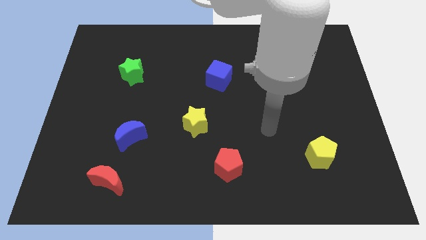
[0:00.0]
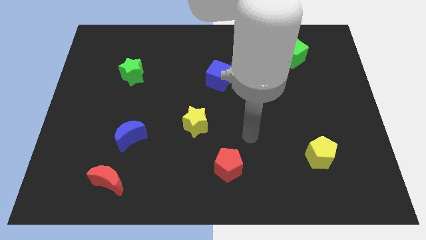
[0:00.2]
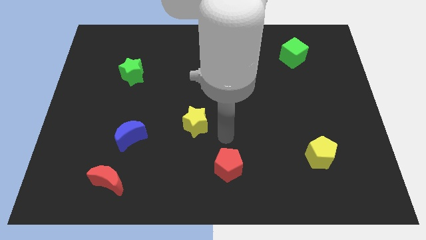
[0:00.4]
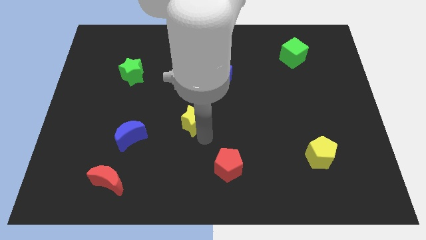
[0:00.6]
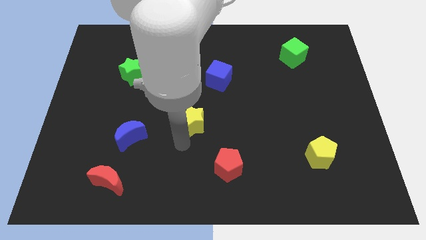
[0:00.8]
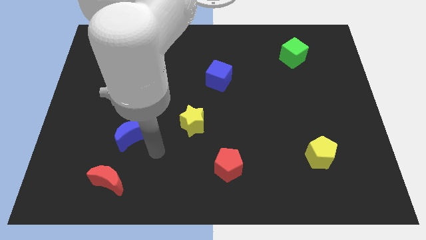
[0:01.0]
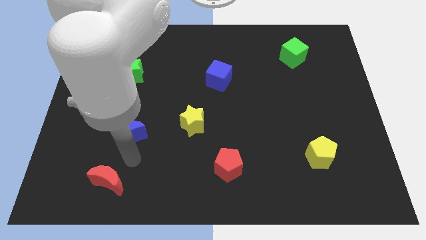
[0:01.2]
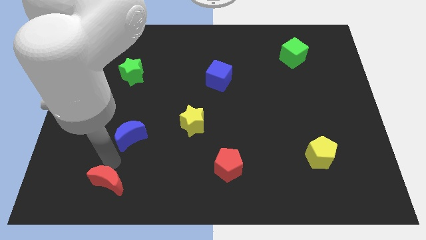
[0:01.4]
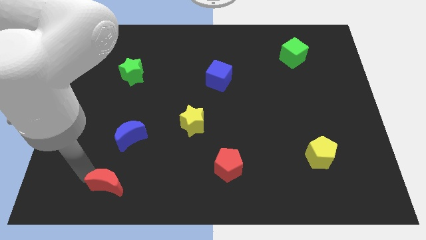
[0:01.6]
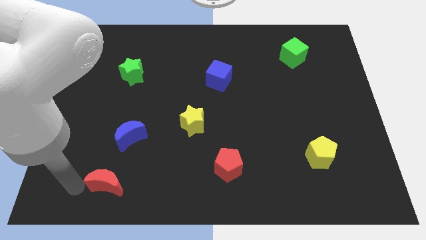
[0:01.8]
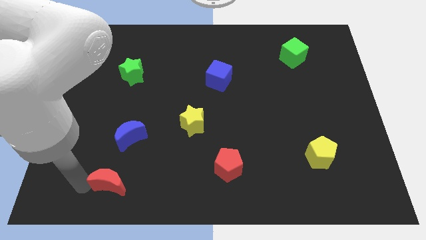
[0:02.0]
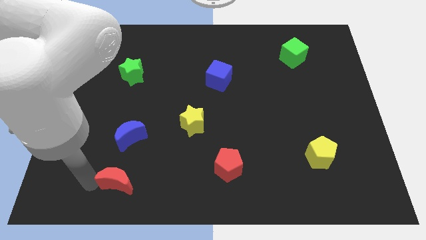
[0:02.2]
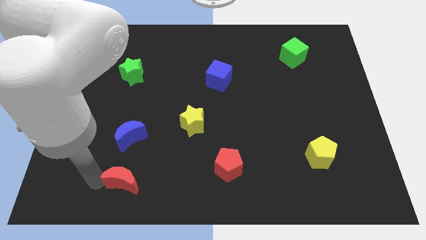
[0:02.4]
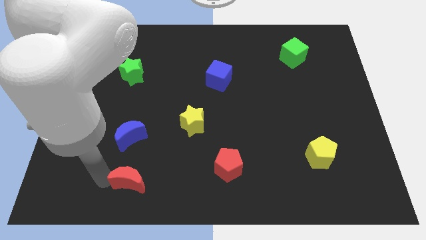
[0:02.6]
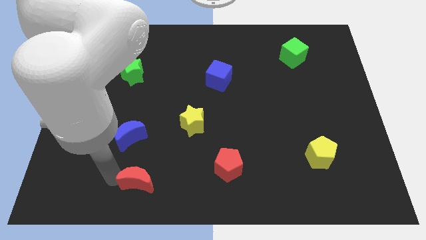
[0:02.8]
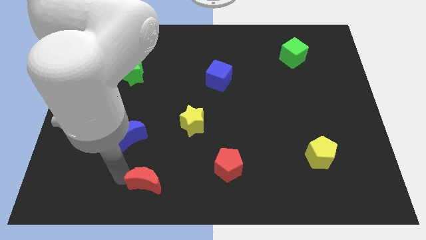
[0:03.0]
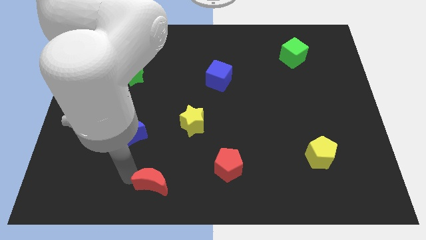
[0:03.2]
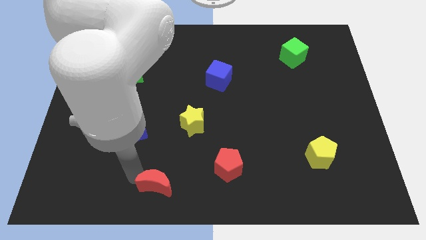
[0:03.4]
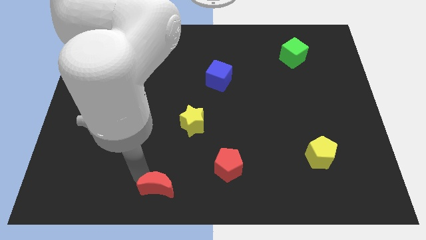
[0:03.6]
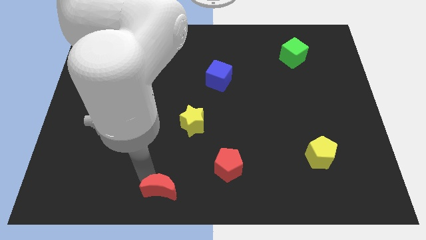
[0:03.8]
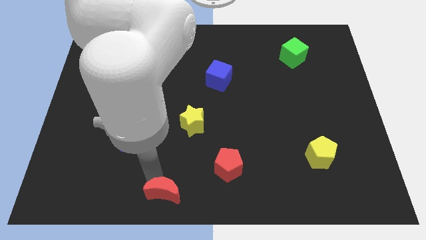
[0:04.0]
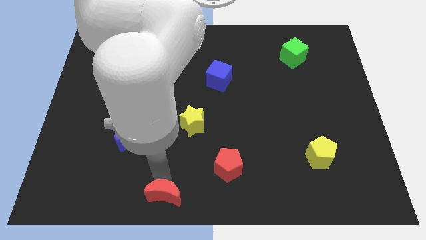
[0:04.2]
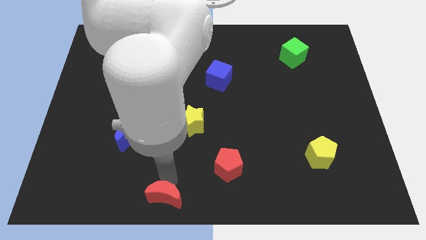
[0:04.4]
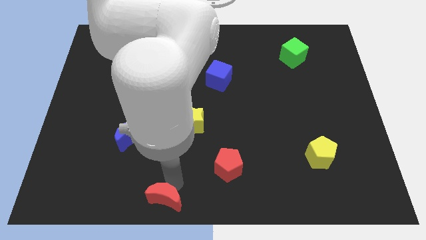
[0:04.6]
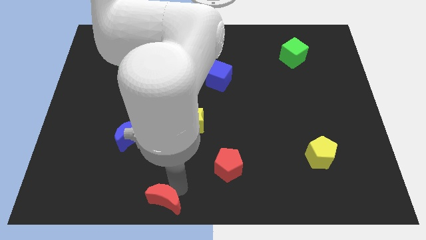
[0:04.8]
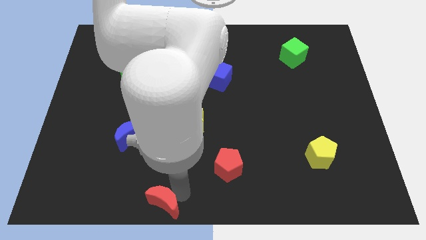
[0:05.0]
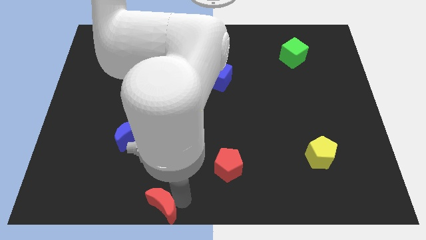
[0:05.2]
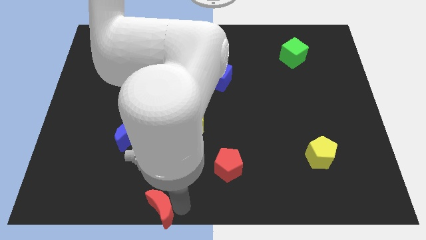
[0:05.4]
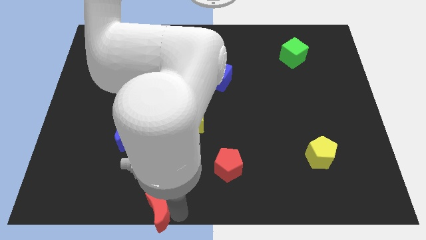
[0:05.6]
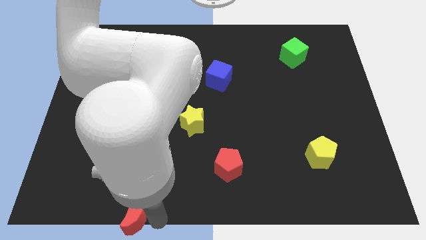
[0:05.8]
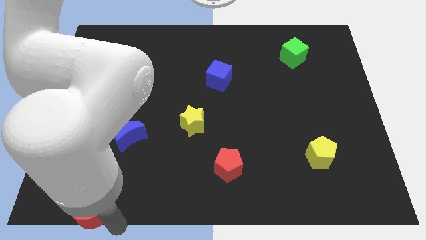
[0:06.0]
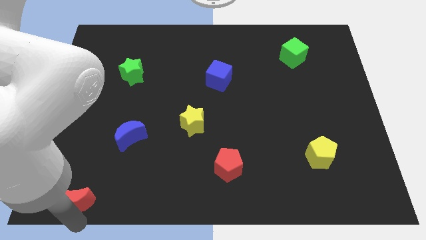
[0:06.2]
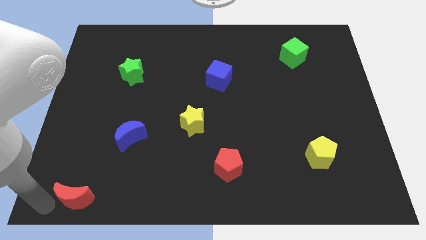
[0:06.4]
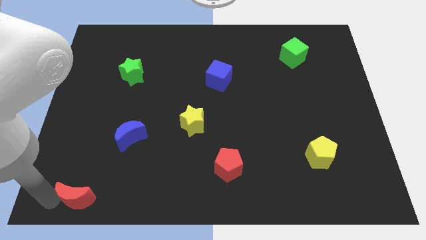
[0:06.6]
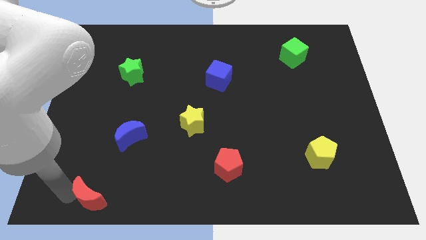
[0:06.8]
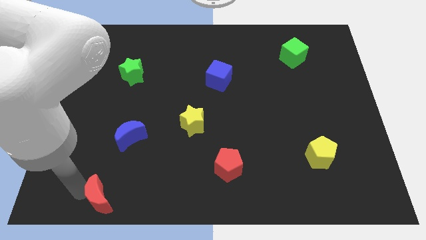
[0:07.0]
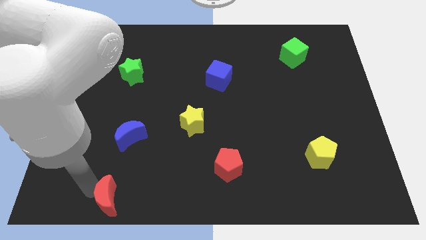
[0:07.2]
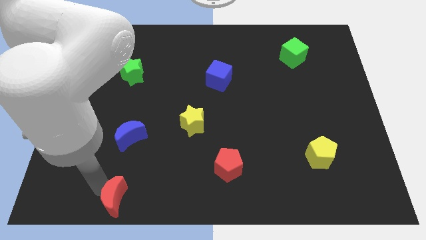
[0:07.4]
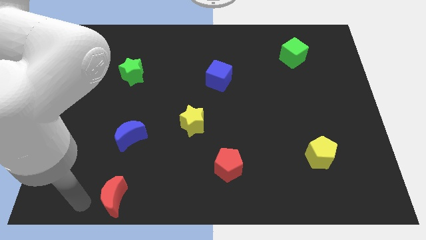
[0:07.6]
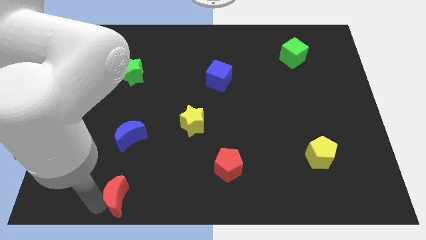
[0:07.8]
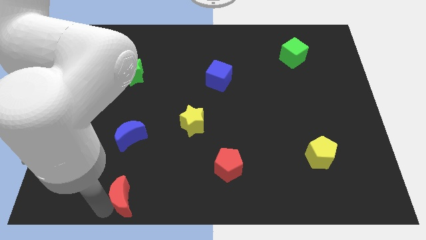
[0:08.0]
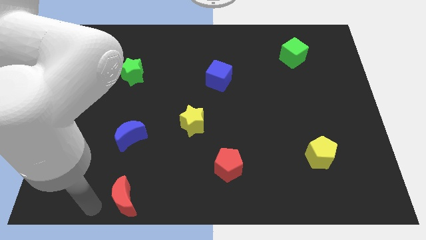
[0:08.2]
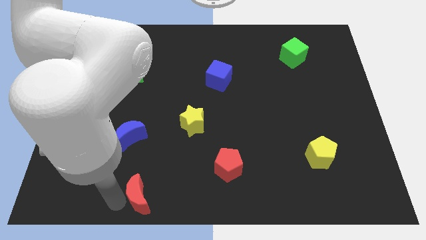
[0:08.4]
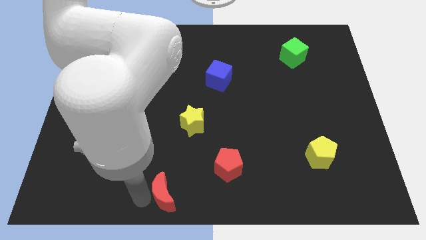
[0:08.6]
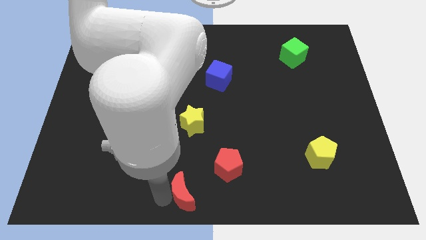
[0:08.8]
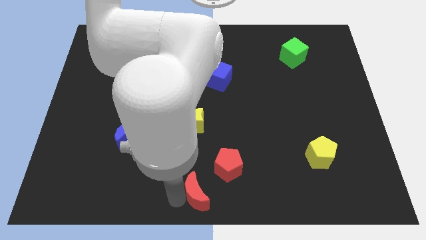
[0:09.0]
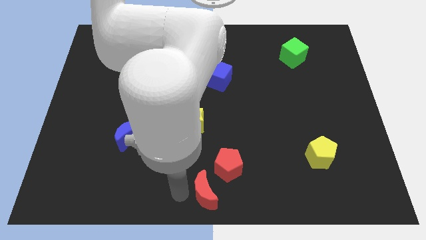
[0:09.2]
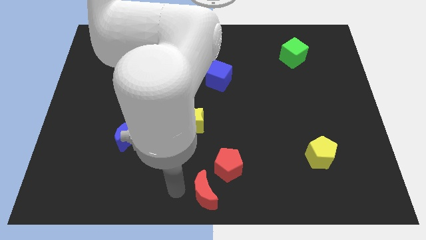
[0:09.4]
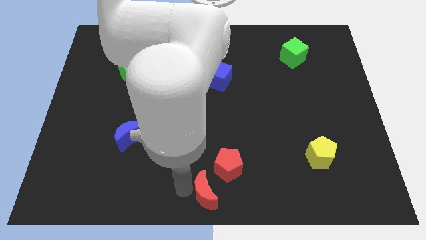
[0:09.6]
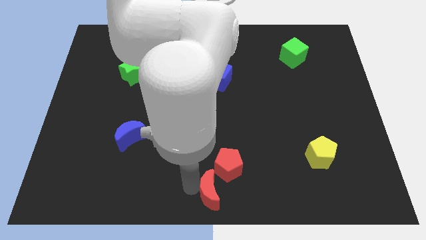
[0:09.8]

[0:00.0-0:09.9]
move the red moon to the right

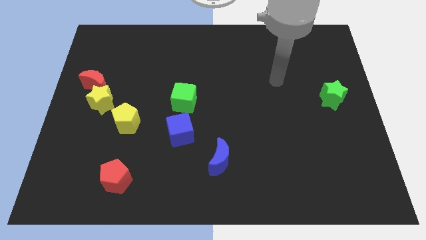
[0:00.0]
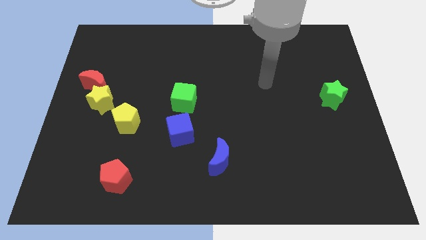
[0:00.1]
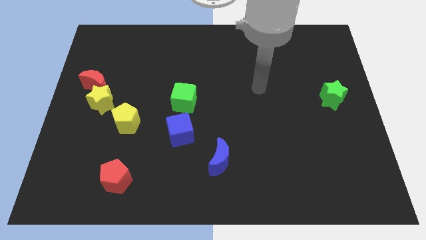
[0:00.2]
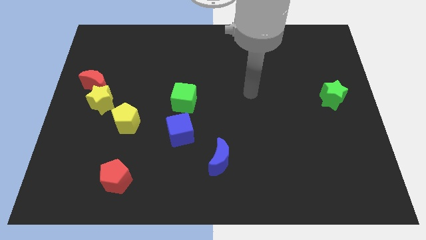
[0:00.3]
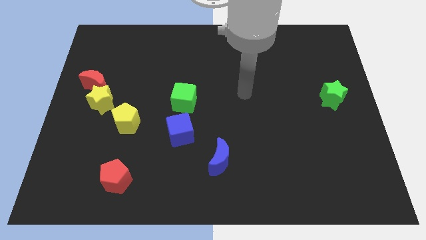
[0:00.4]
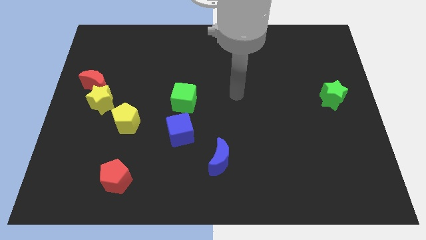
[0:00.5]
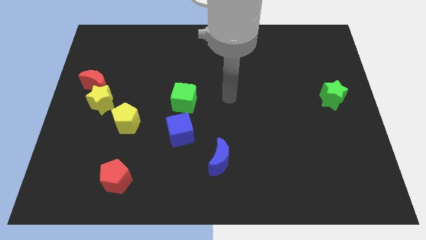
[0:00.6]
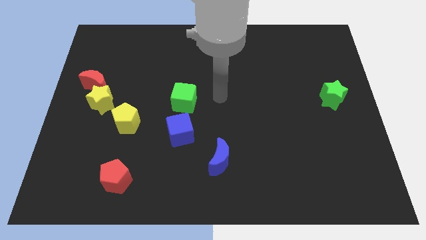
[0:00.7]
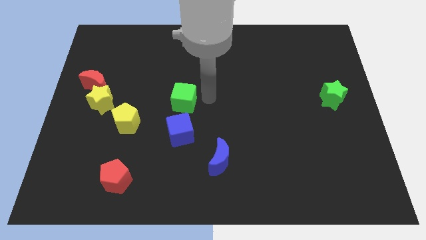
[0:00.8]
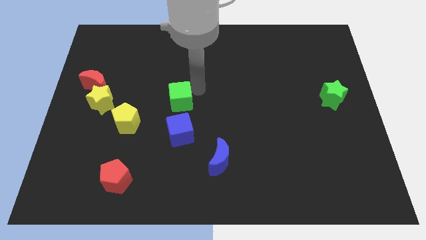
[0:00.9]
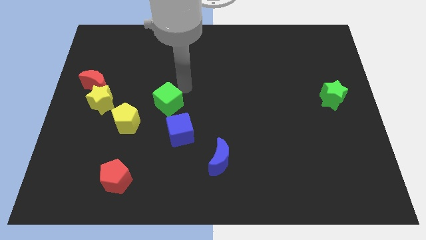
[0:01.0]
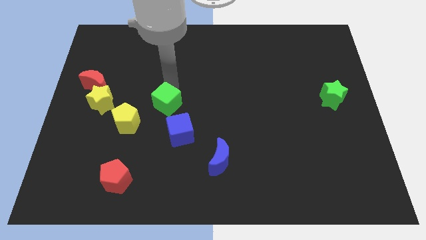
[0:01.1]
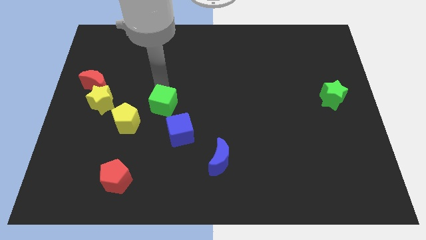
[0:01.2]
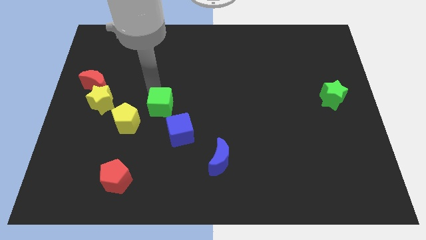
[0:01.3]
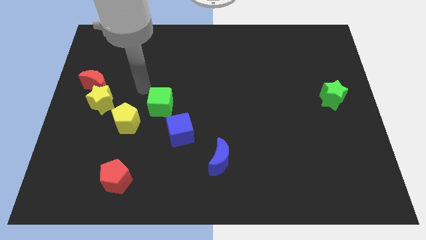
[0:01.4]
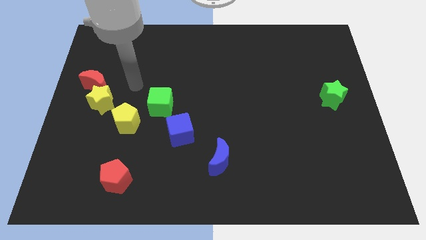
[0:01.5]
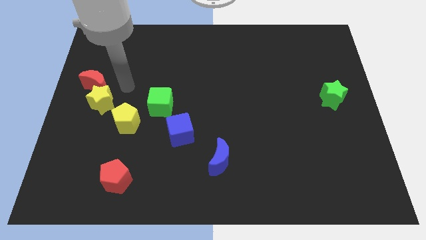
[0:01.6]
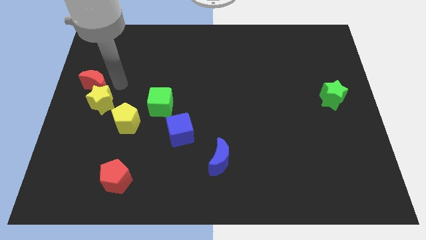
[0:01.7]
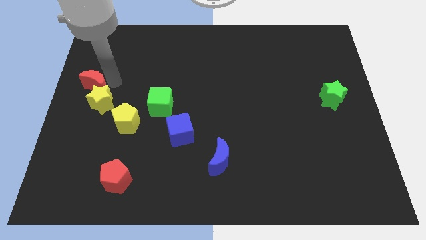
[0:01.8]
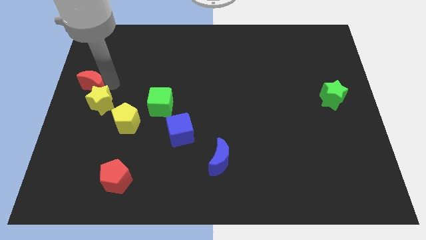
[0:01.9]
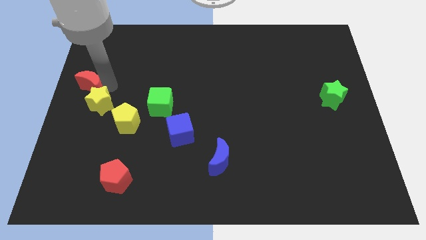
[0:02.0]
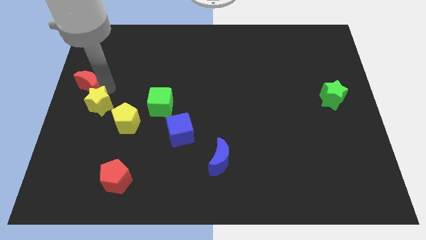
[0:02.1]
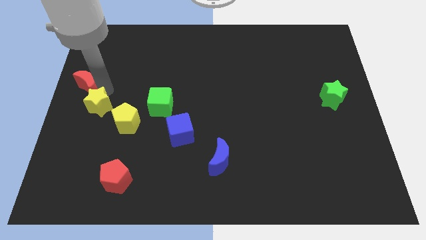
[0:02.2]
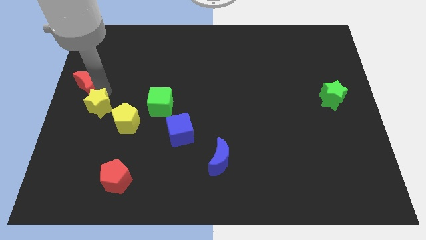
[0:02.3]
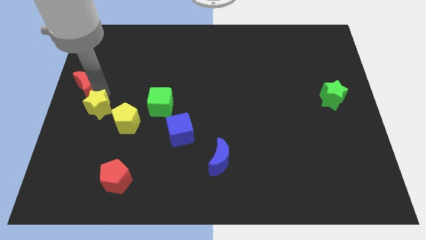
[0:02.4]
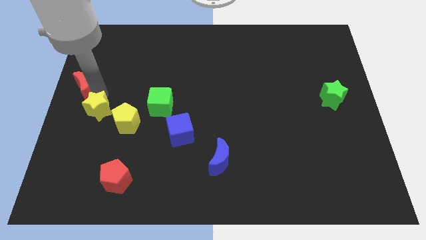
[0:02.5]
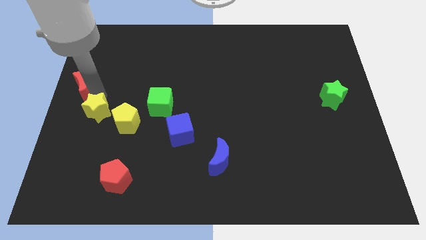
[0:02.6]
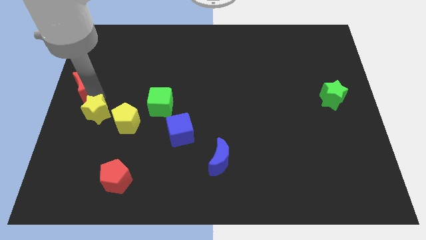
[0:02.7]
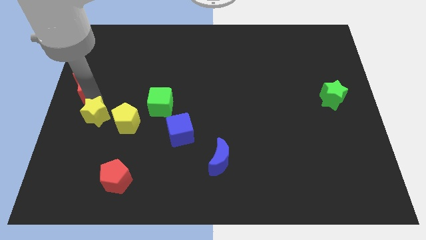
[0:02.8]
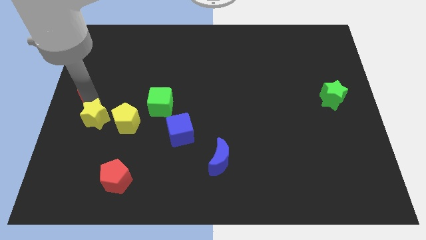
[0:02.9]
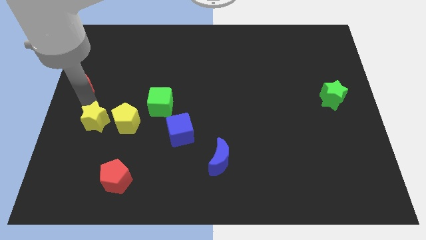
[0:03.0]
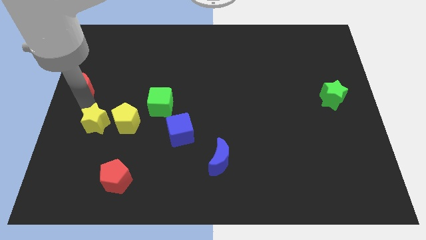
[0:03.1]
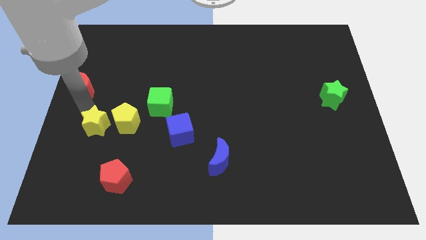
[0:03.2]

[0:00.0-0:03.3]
slightly move the yellow star down
